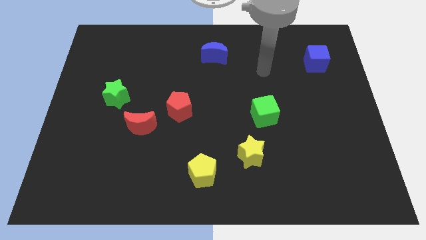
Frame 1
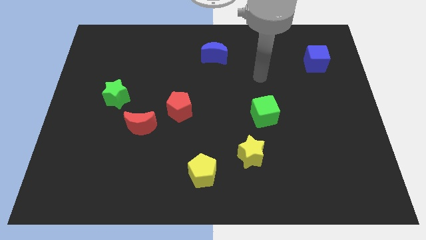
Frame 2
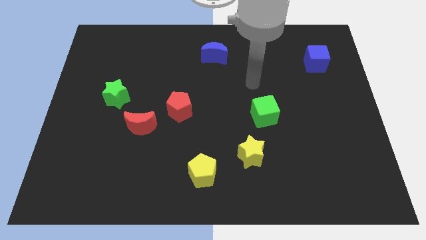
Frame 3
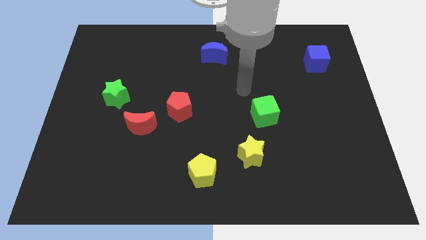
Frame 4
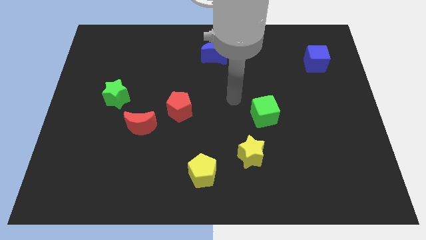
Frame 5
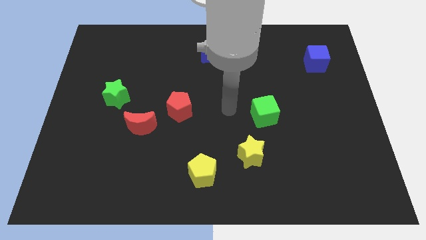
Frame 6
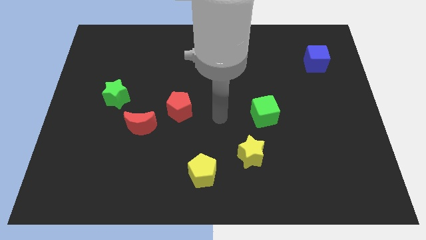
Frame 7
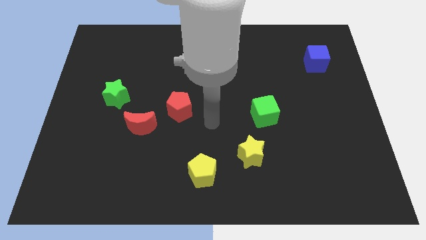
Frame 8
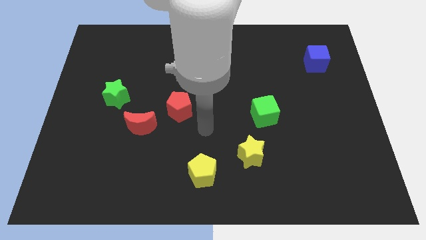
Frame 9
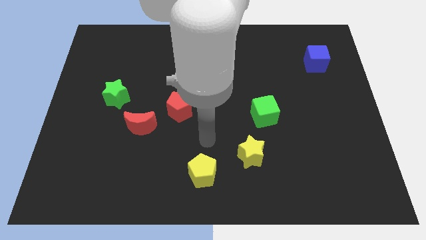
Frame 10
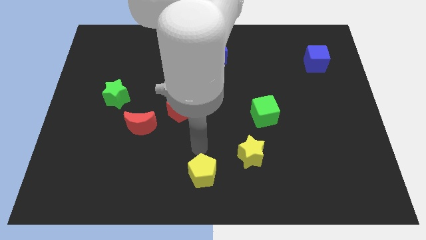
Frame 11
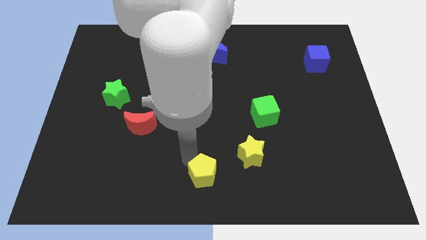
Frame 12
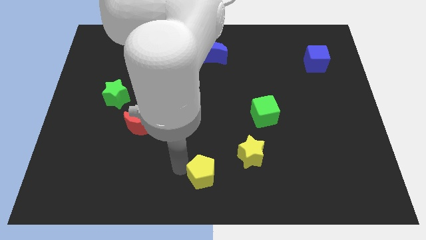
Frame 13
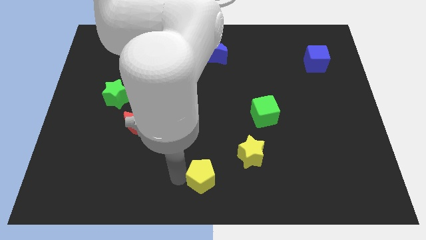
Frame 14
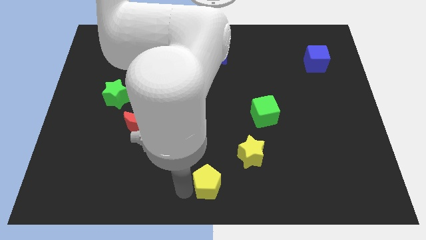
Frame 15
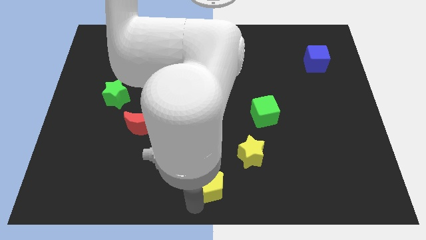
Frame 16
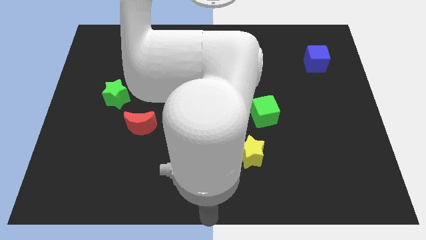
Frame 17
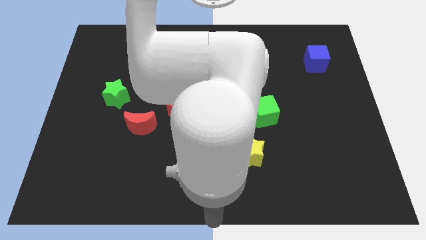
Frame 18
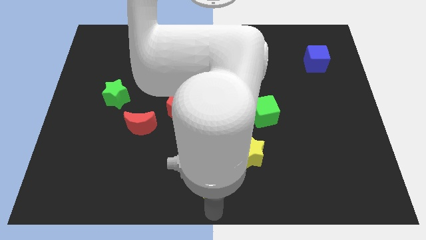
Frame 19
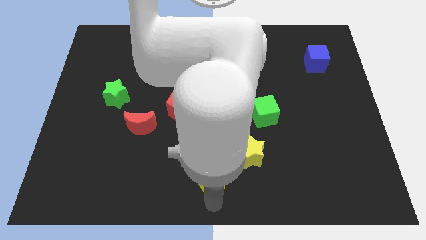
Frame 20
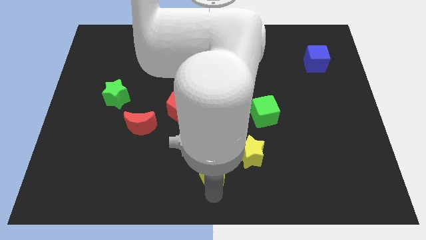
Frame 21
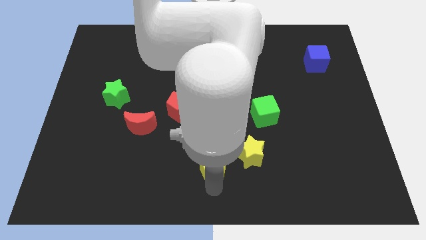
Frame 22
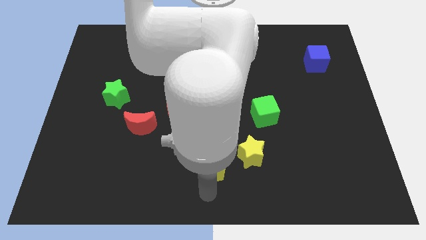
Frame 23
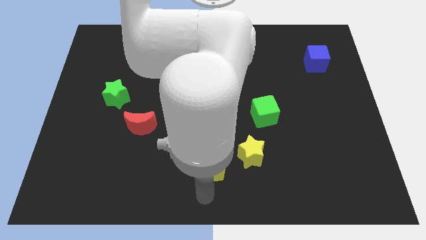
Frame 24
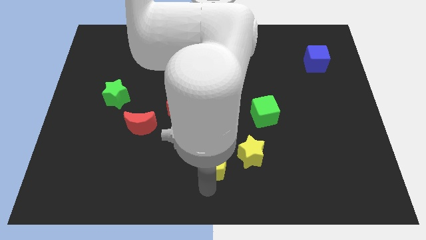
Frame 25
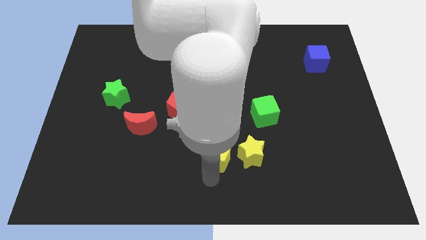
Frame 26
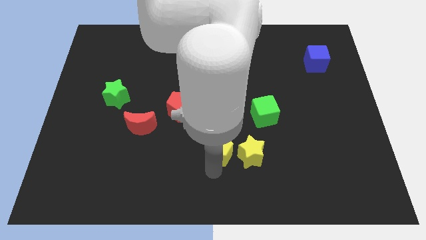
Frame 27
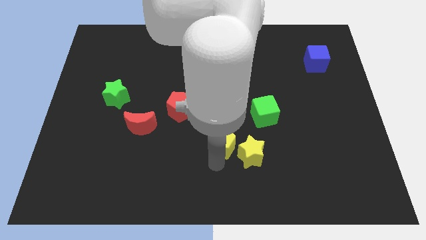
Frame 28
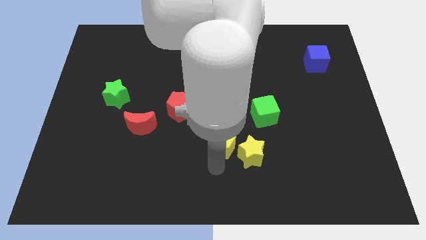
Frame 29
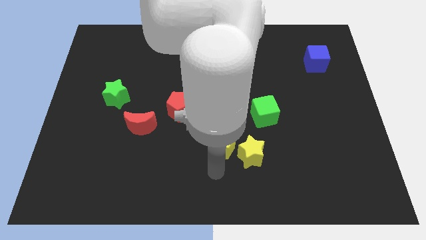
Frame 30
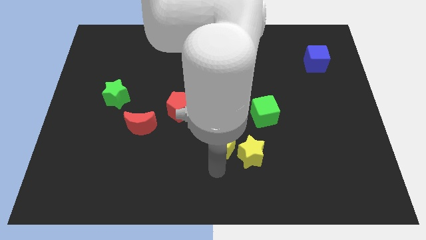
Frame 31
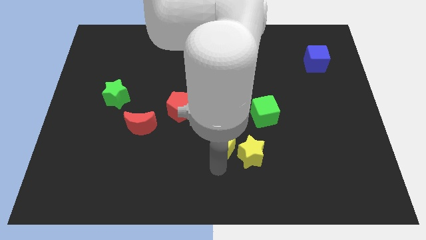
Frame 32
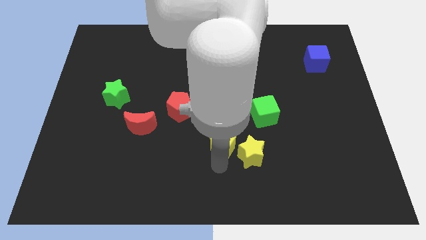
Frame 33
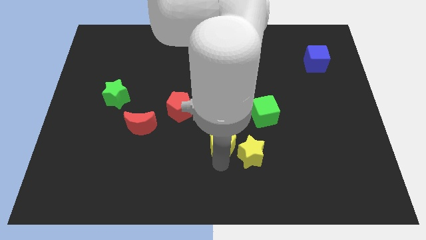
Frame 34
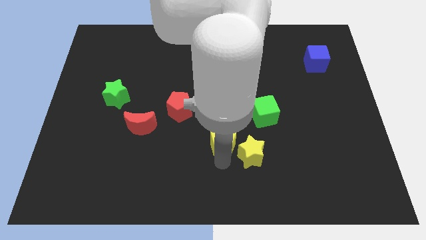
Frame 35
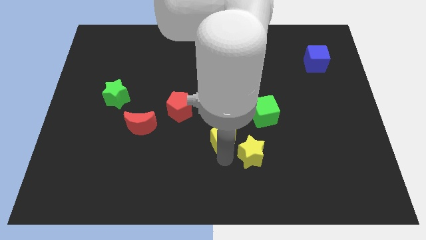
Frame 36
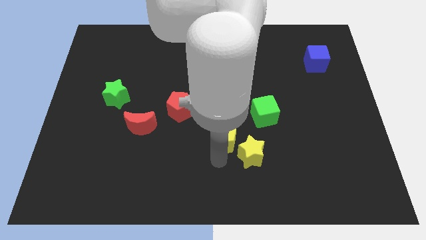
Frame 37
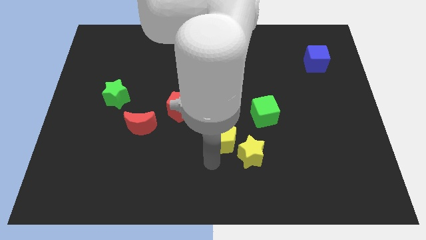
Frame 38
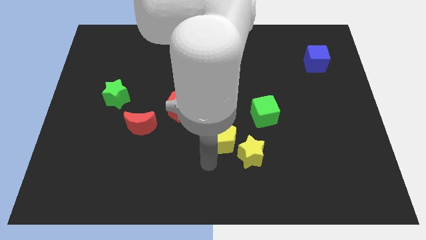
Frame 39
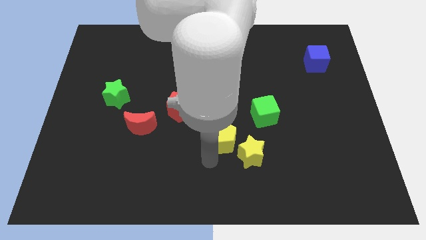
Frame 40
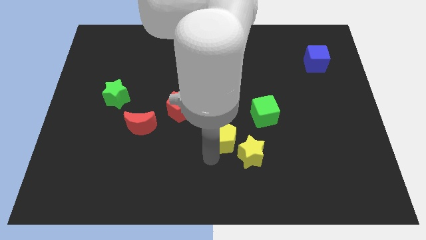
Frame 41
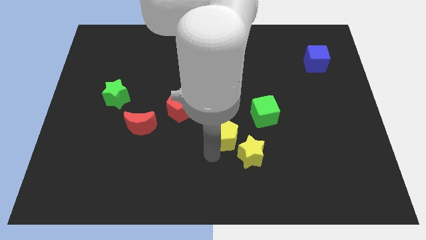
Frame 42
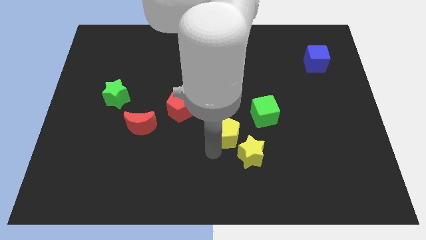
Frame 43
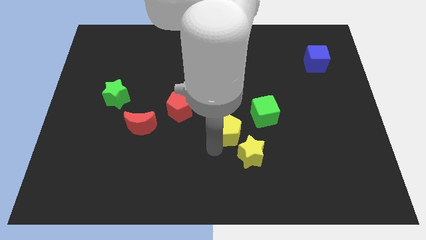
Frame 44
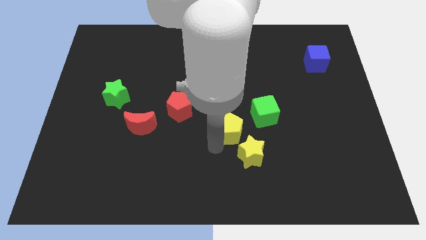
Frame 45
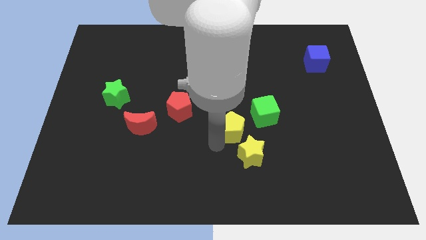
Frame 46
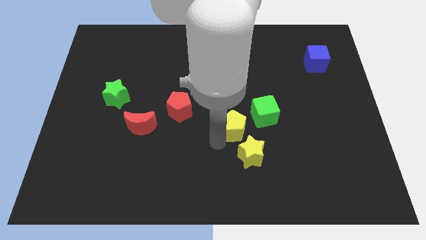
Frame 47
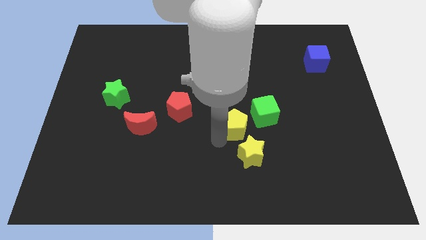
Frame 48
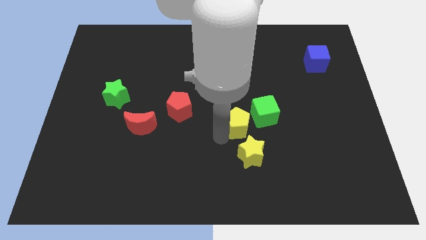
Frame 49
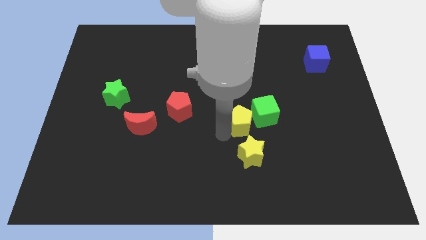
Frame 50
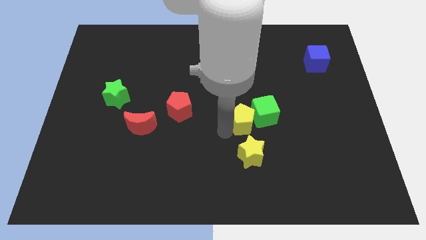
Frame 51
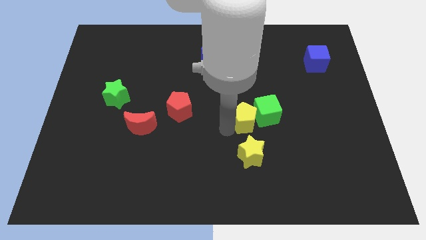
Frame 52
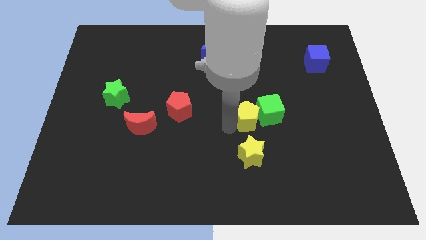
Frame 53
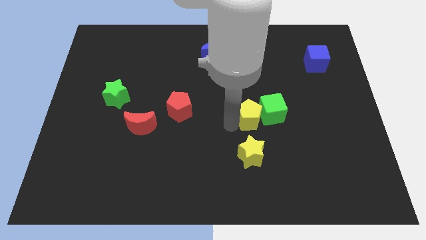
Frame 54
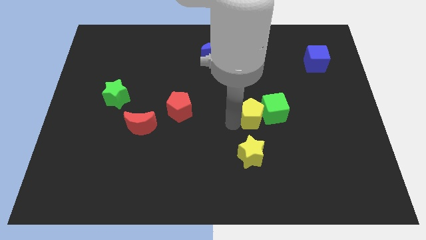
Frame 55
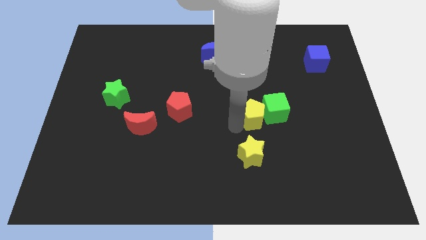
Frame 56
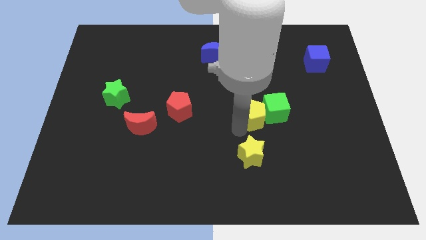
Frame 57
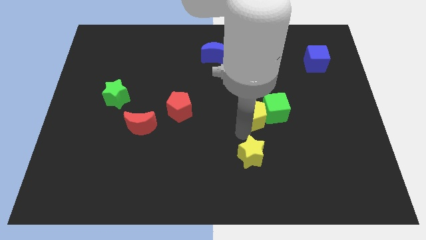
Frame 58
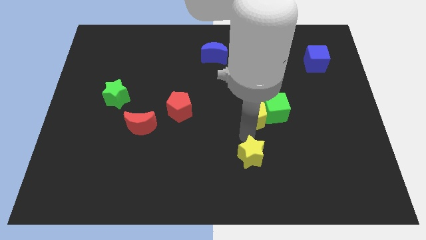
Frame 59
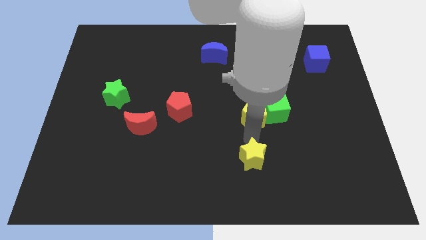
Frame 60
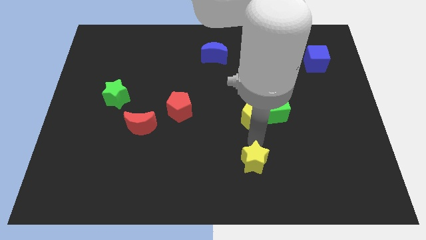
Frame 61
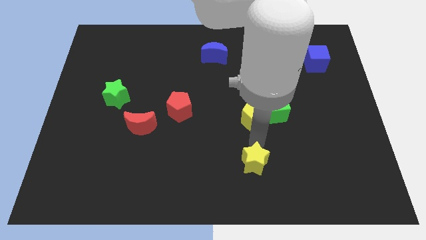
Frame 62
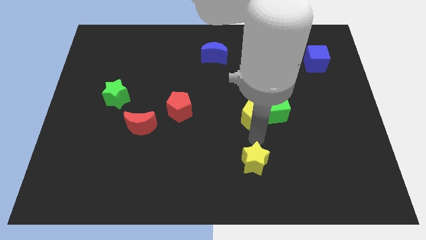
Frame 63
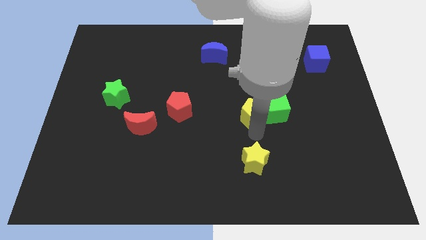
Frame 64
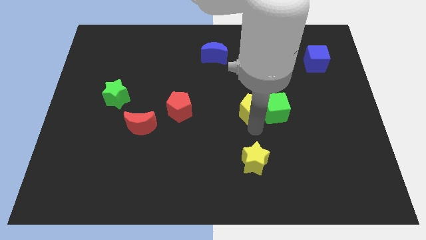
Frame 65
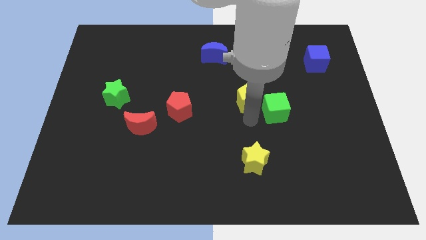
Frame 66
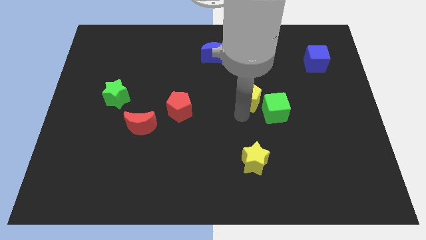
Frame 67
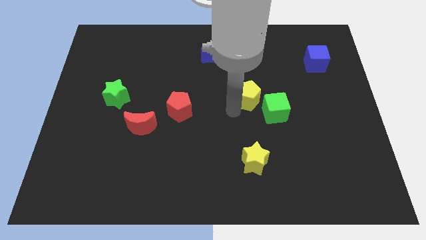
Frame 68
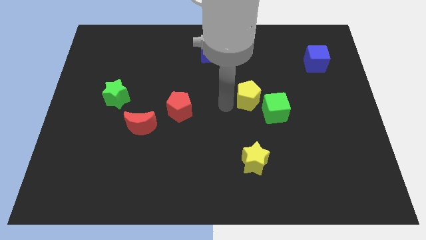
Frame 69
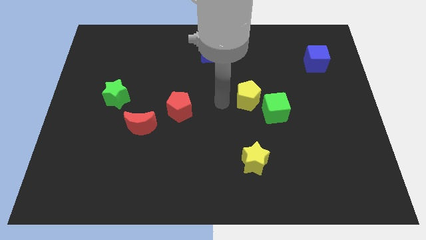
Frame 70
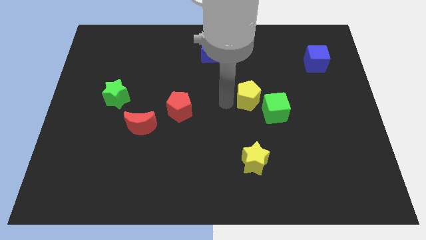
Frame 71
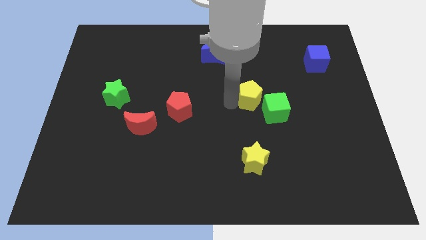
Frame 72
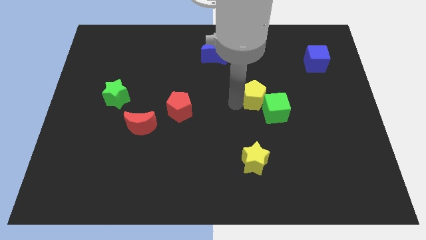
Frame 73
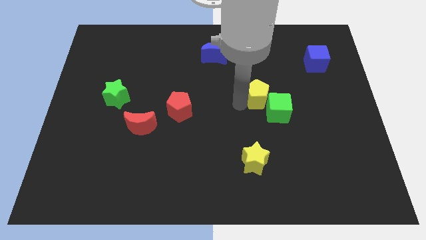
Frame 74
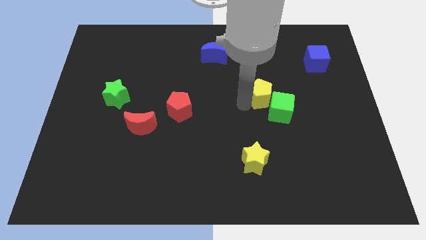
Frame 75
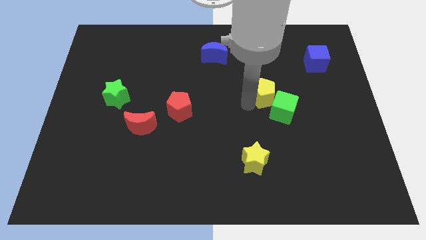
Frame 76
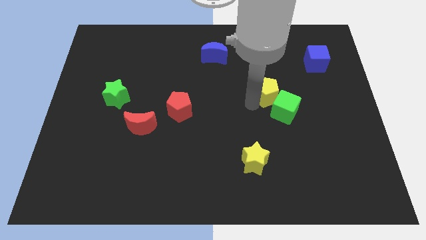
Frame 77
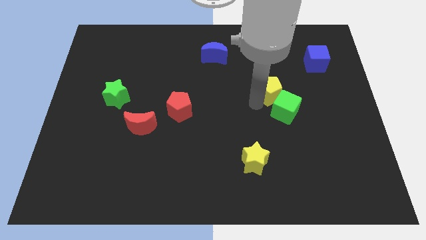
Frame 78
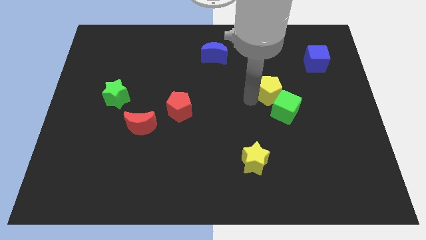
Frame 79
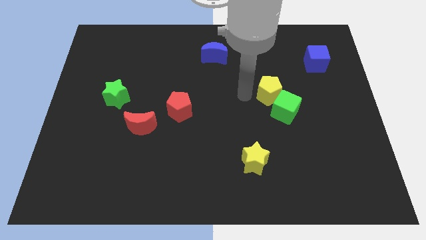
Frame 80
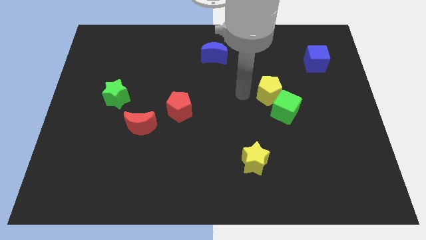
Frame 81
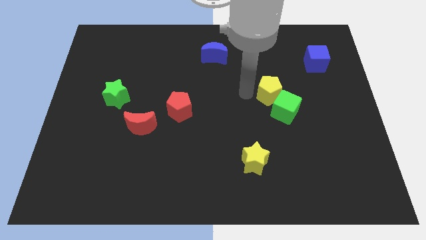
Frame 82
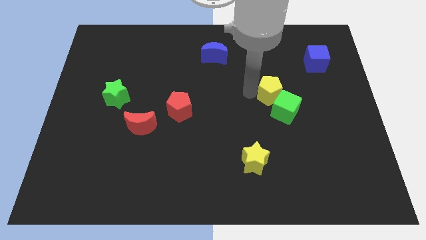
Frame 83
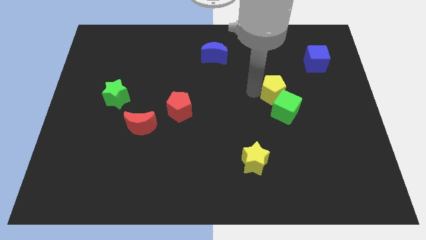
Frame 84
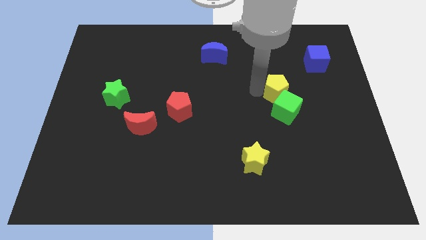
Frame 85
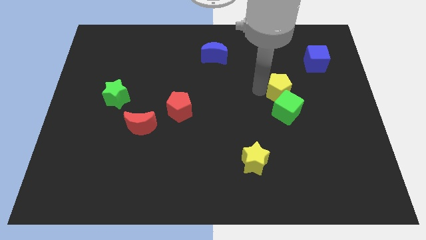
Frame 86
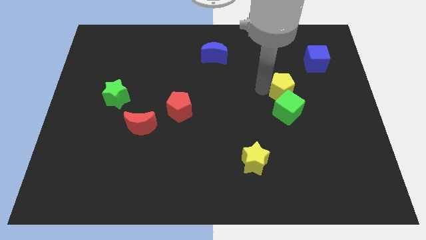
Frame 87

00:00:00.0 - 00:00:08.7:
slide the yellow pentagon diagonally up and to the right of the green cube
